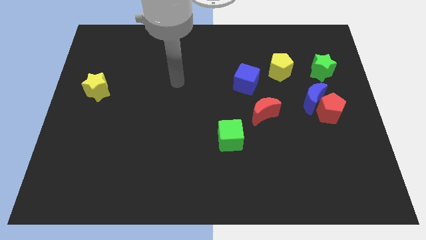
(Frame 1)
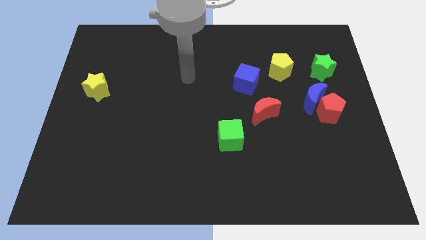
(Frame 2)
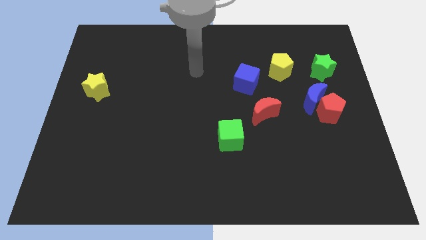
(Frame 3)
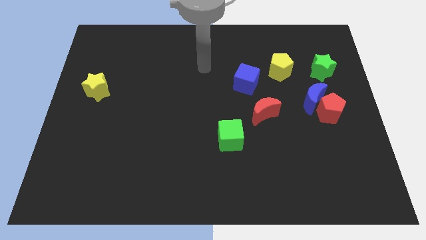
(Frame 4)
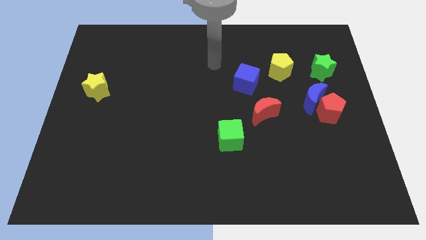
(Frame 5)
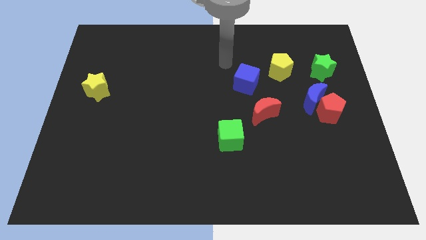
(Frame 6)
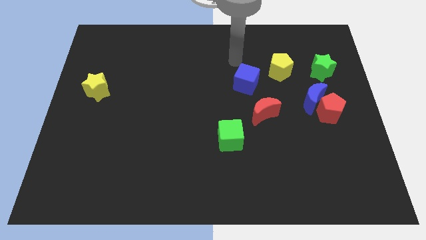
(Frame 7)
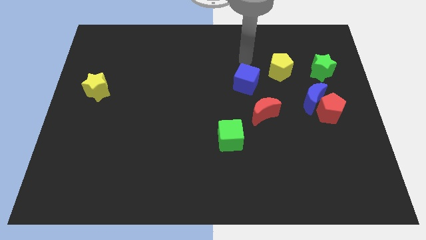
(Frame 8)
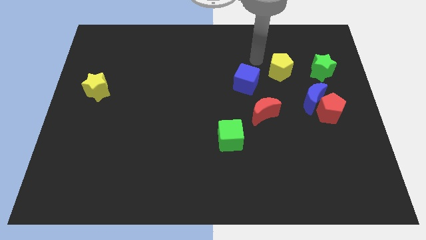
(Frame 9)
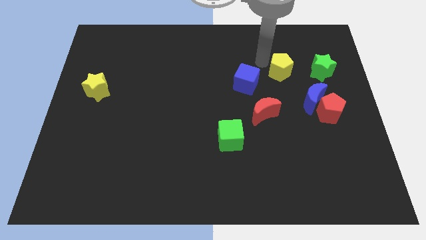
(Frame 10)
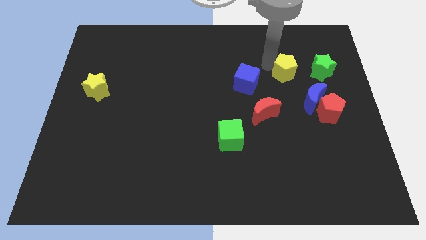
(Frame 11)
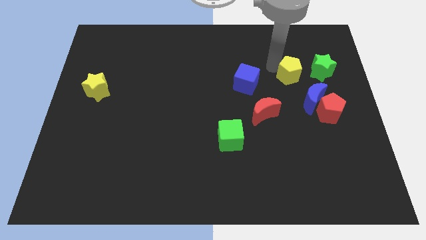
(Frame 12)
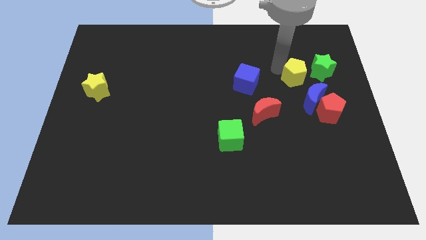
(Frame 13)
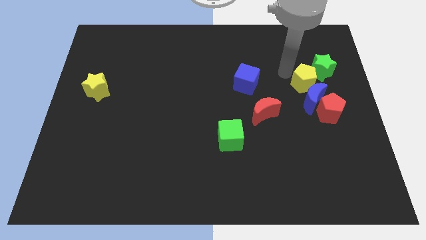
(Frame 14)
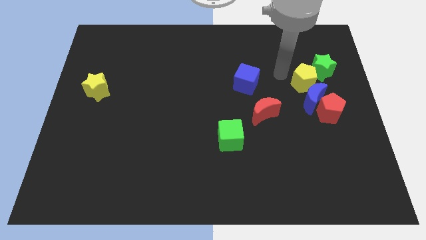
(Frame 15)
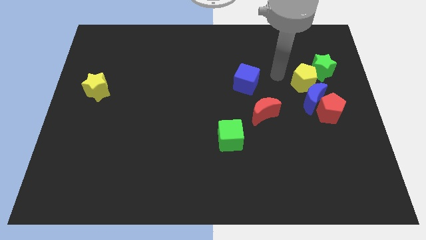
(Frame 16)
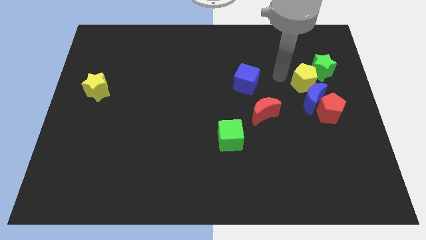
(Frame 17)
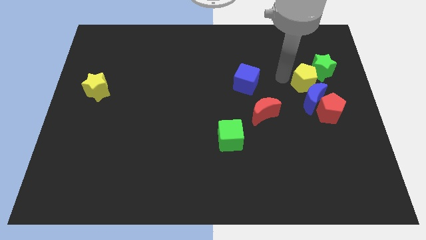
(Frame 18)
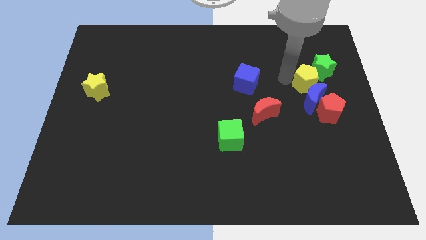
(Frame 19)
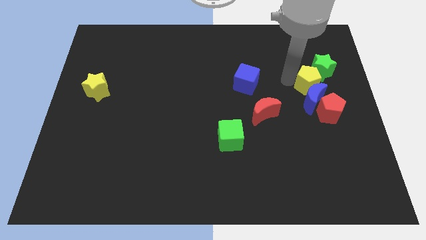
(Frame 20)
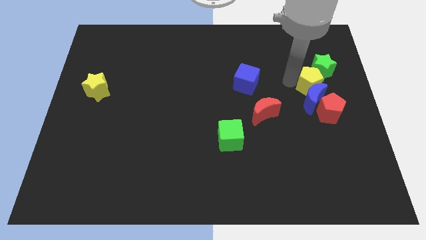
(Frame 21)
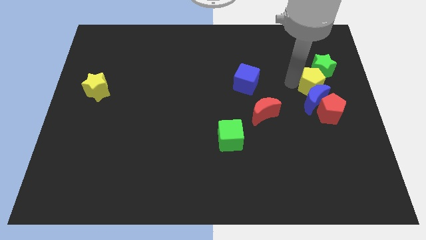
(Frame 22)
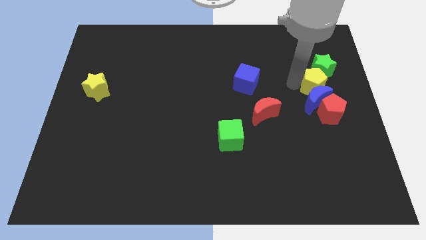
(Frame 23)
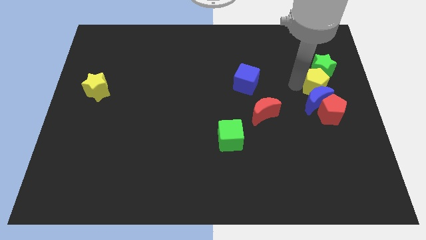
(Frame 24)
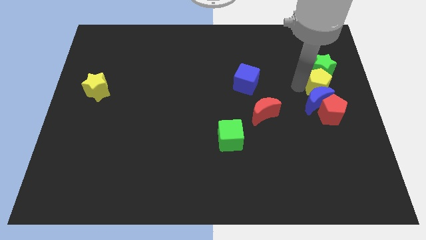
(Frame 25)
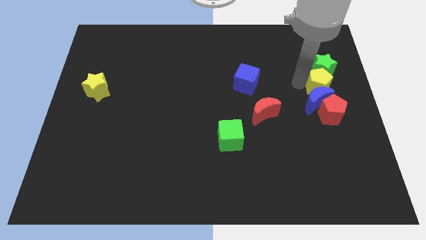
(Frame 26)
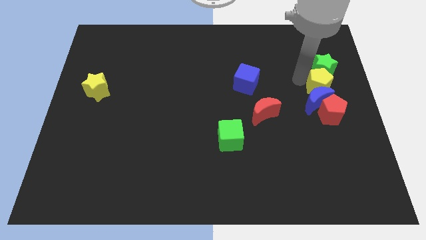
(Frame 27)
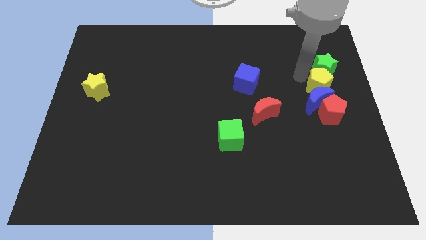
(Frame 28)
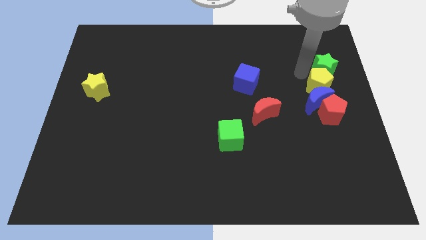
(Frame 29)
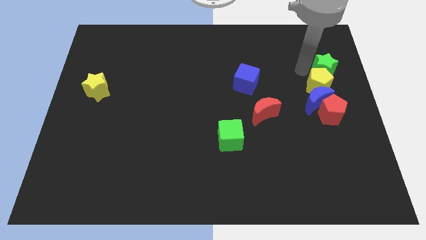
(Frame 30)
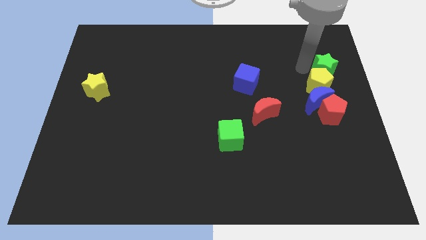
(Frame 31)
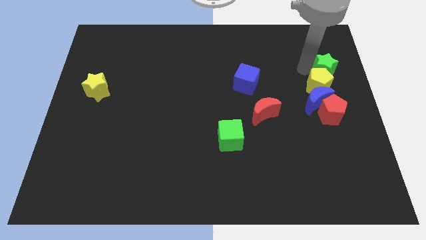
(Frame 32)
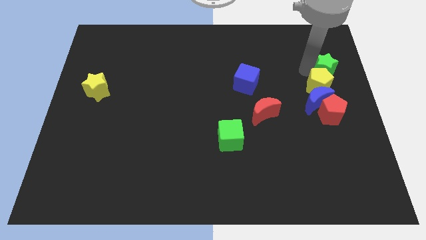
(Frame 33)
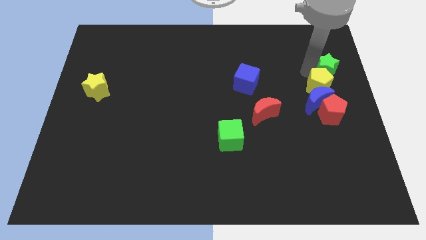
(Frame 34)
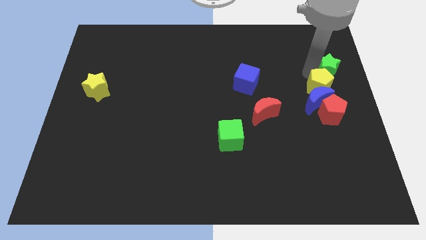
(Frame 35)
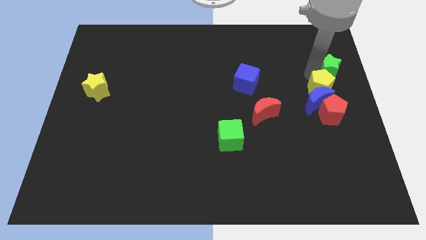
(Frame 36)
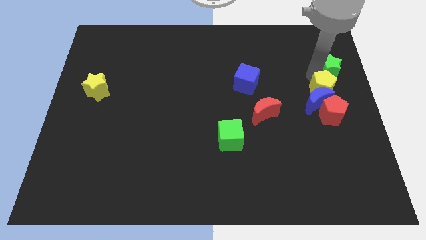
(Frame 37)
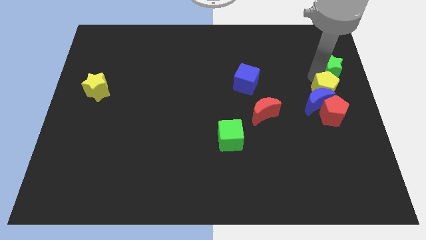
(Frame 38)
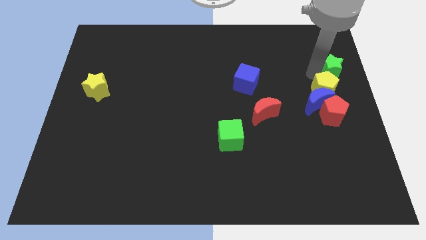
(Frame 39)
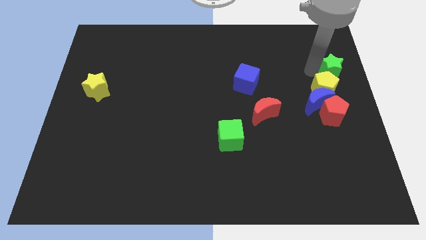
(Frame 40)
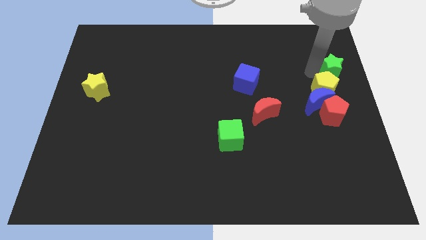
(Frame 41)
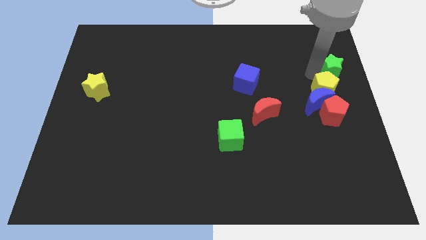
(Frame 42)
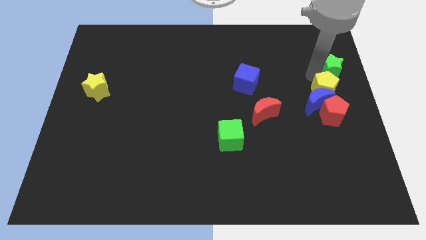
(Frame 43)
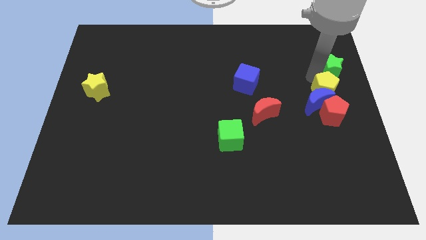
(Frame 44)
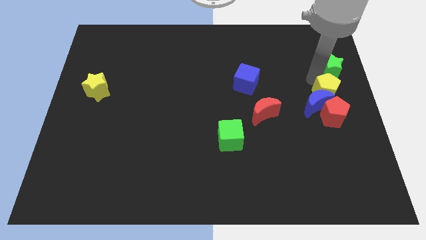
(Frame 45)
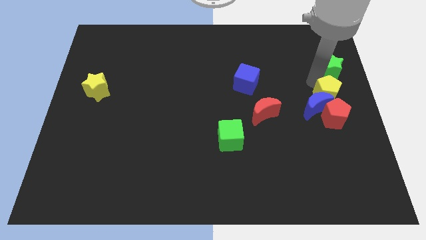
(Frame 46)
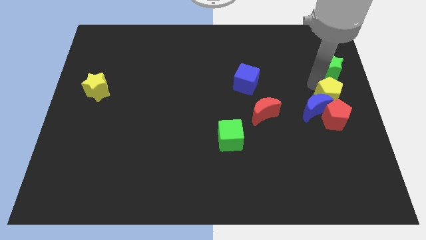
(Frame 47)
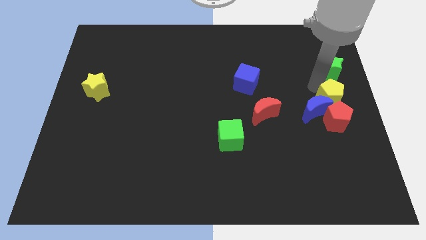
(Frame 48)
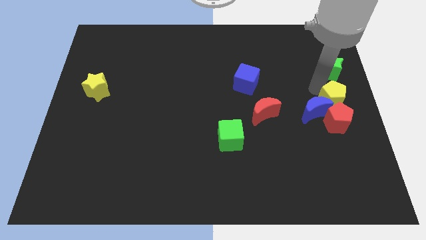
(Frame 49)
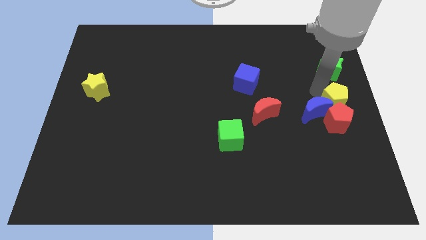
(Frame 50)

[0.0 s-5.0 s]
put the yellow pentagon towards the red pentagon

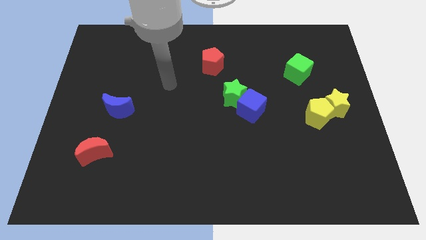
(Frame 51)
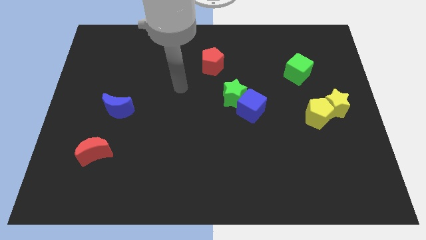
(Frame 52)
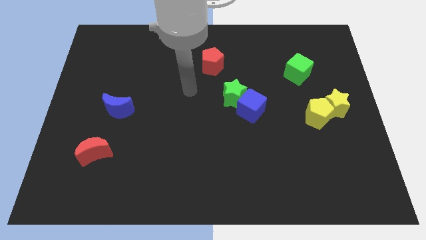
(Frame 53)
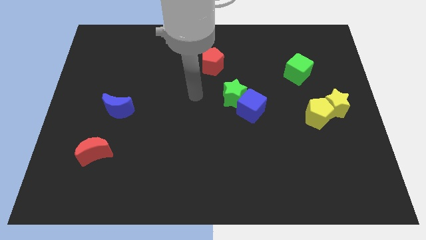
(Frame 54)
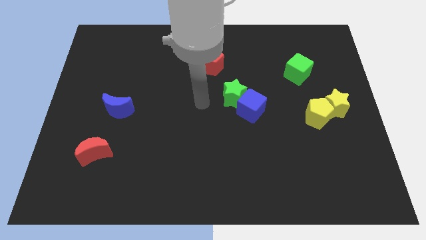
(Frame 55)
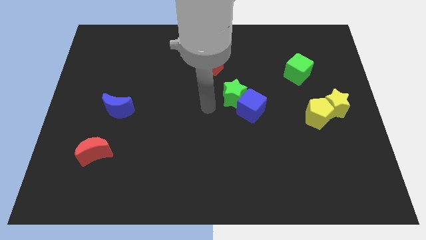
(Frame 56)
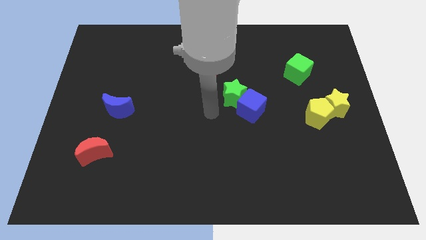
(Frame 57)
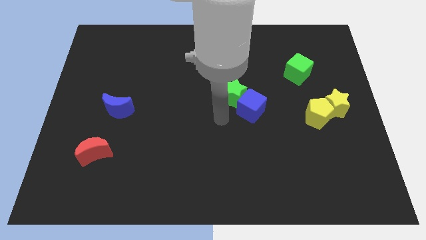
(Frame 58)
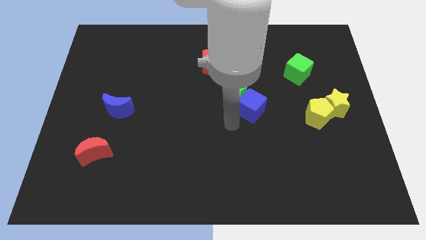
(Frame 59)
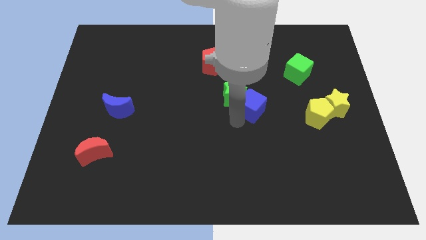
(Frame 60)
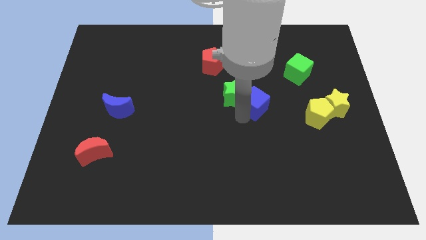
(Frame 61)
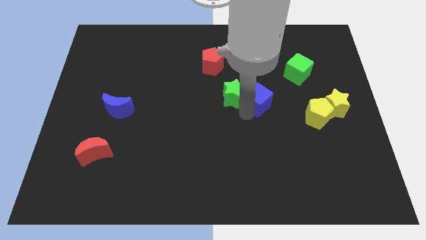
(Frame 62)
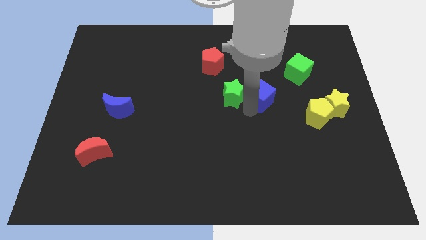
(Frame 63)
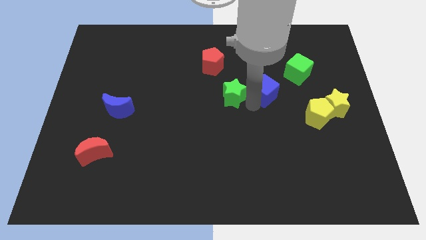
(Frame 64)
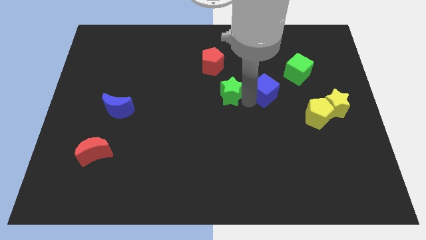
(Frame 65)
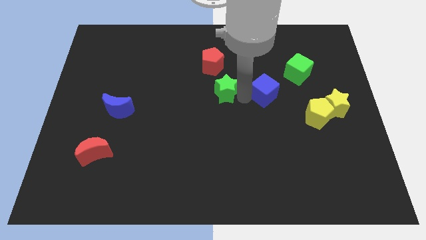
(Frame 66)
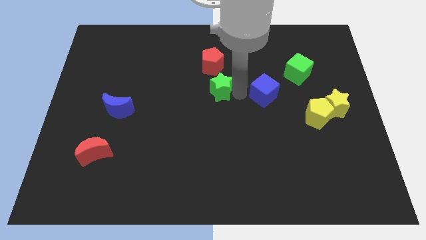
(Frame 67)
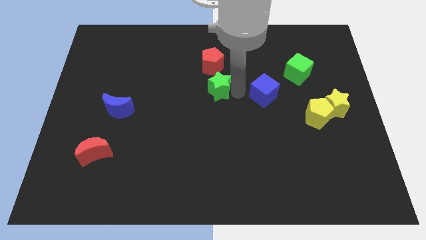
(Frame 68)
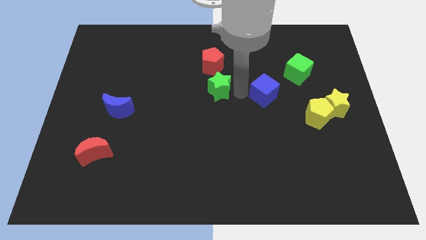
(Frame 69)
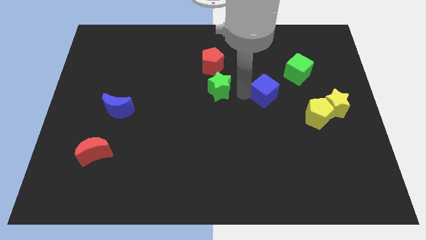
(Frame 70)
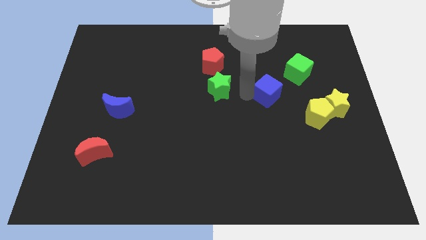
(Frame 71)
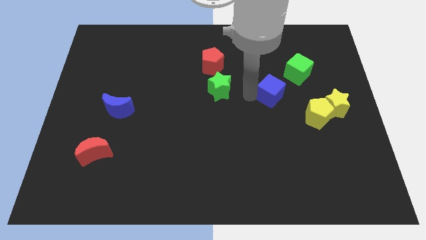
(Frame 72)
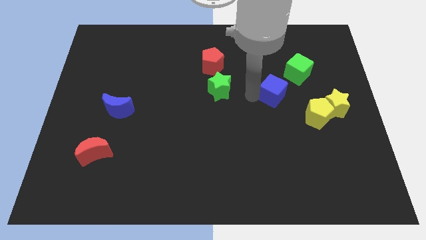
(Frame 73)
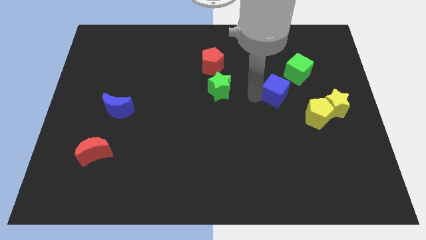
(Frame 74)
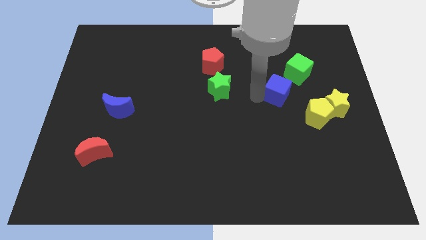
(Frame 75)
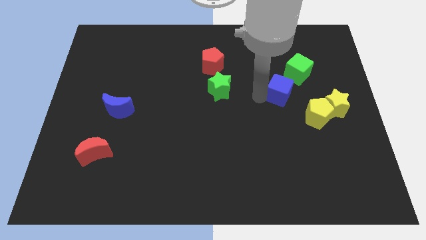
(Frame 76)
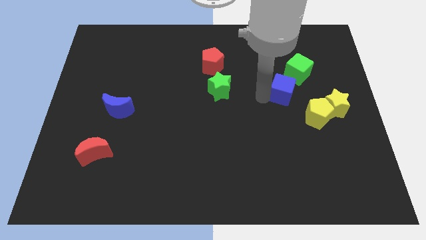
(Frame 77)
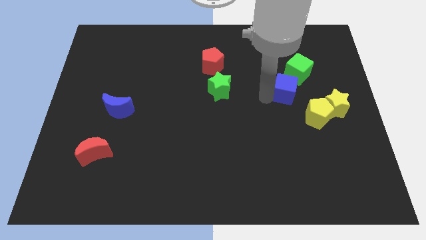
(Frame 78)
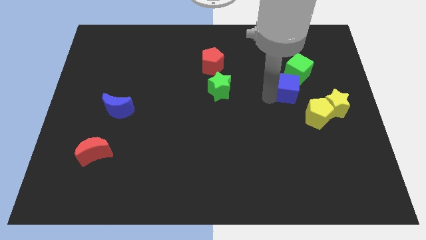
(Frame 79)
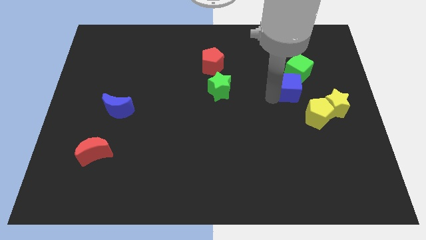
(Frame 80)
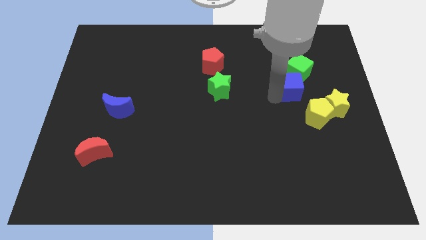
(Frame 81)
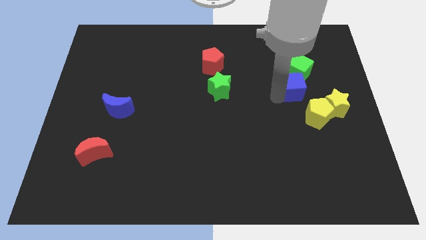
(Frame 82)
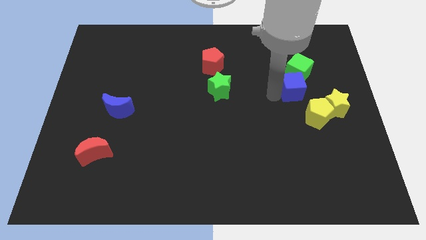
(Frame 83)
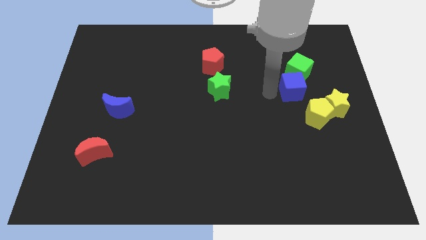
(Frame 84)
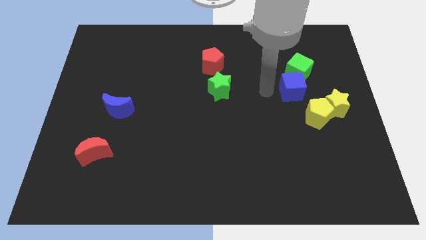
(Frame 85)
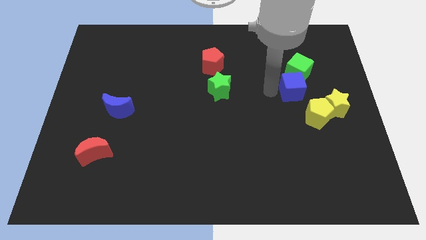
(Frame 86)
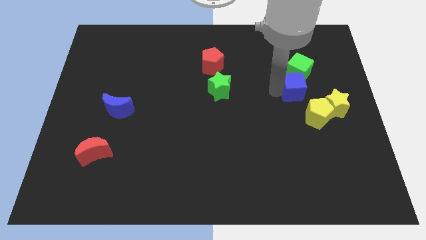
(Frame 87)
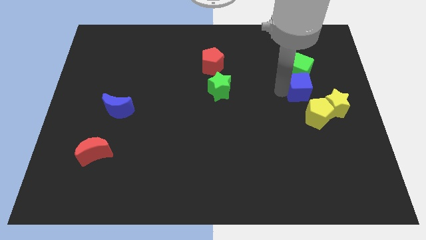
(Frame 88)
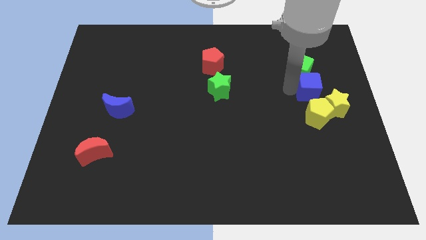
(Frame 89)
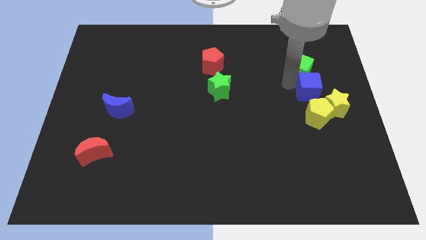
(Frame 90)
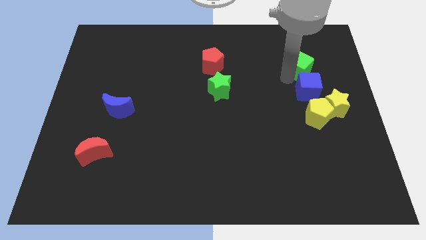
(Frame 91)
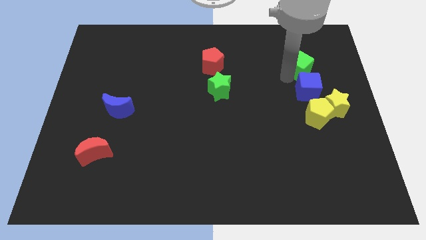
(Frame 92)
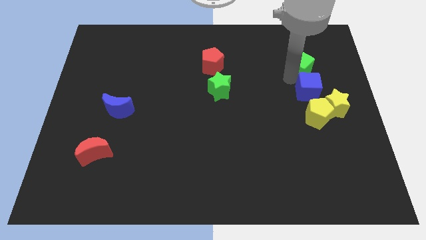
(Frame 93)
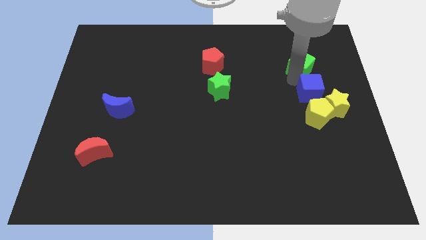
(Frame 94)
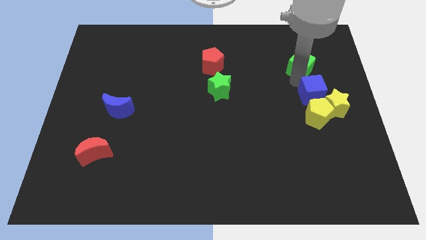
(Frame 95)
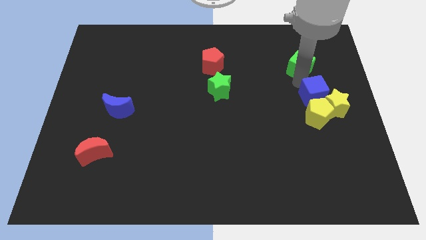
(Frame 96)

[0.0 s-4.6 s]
move the blue cube next to the yellow star
